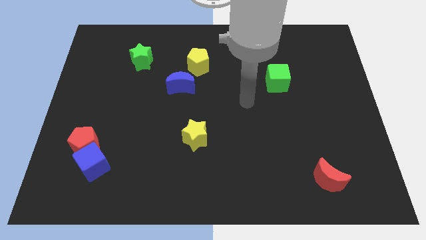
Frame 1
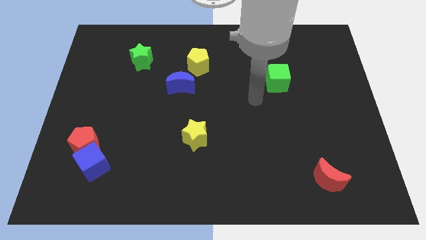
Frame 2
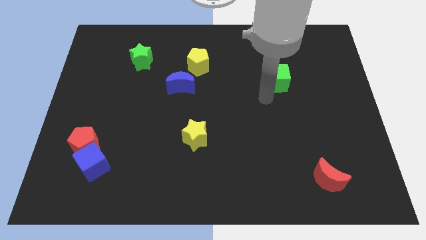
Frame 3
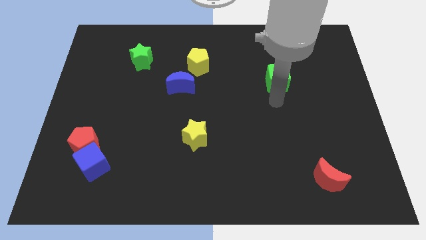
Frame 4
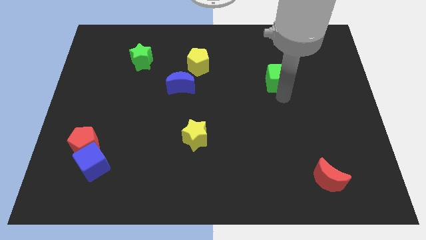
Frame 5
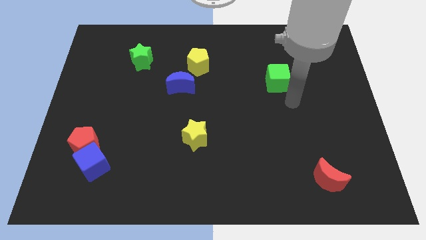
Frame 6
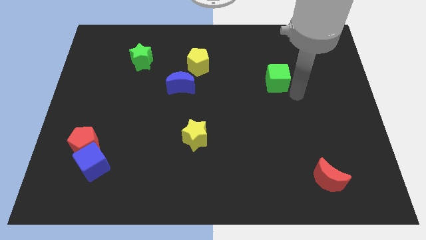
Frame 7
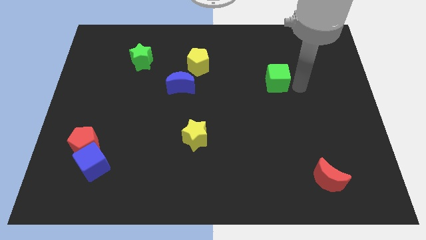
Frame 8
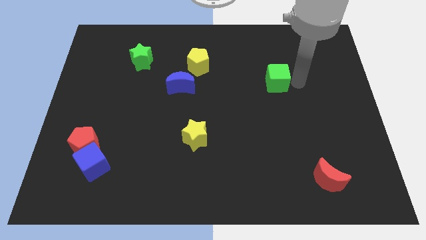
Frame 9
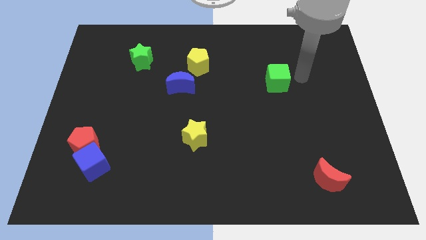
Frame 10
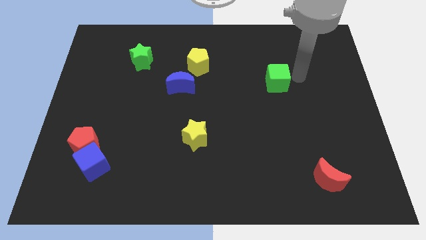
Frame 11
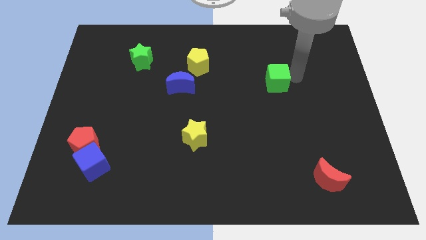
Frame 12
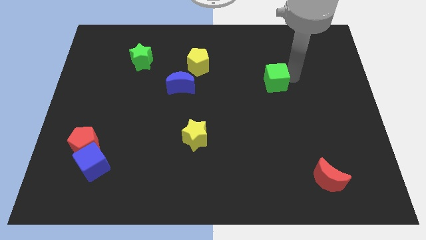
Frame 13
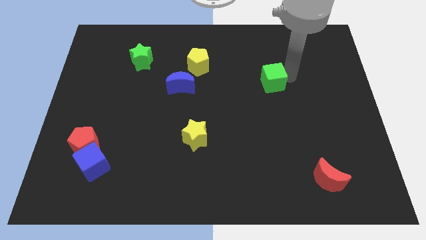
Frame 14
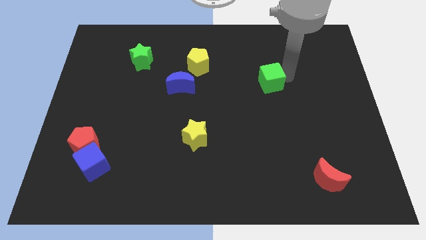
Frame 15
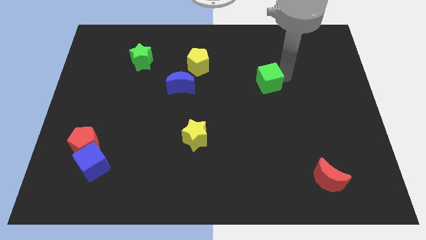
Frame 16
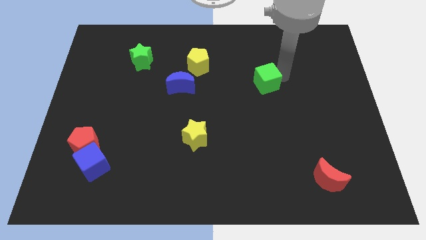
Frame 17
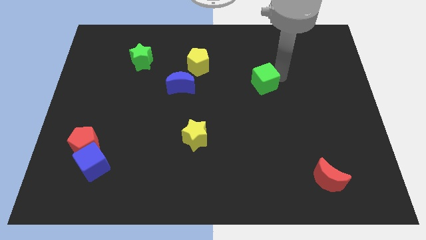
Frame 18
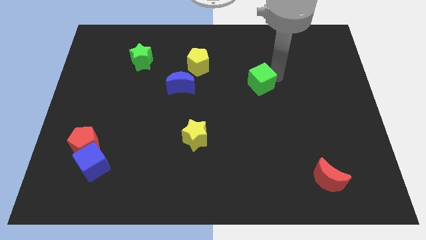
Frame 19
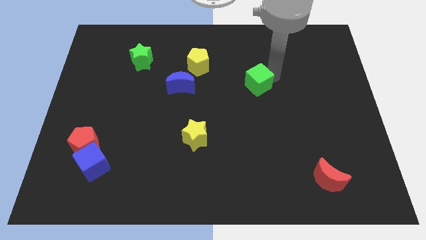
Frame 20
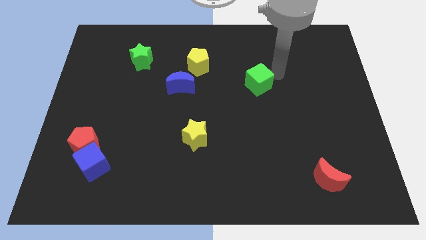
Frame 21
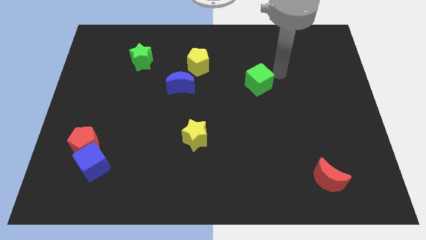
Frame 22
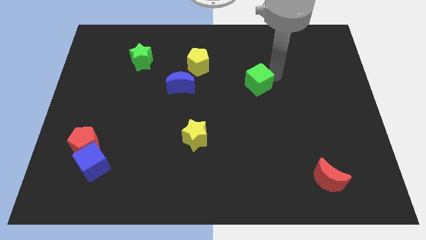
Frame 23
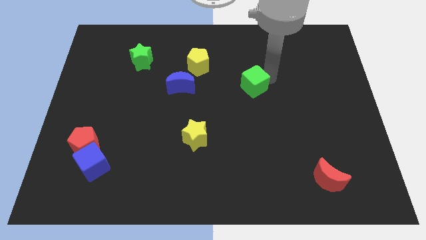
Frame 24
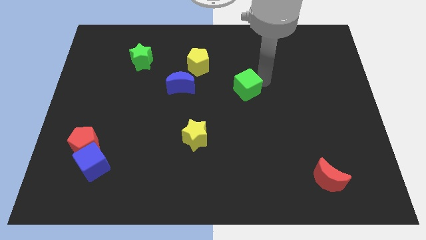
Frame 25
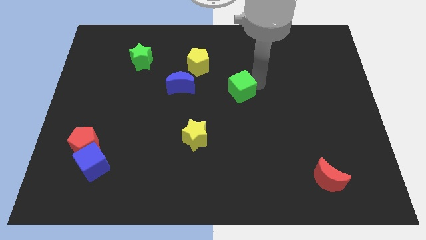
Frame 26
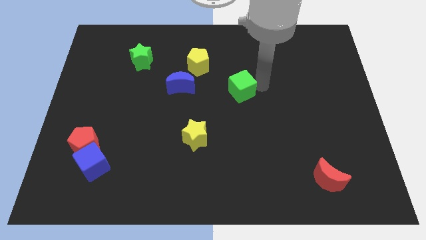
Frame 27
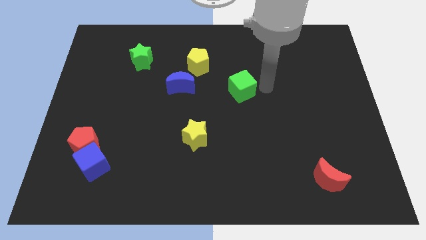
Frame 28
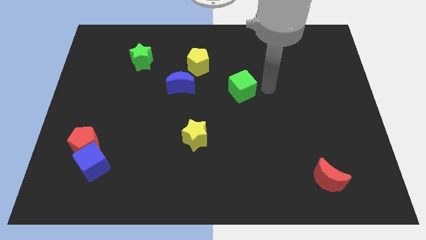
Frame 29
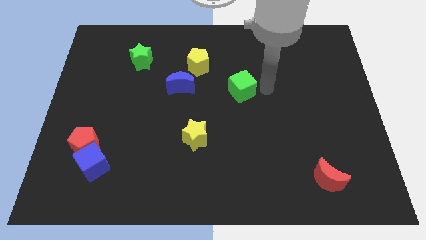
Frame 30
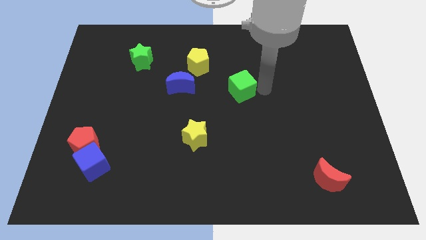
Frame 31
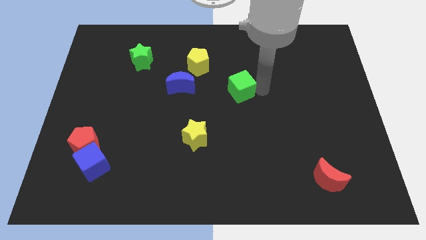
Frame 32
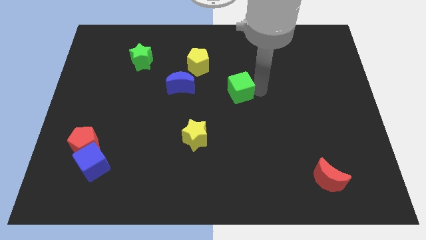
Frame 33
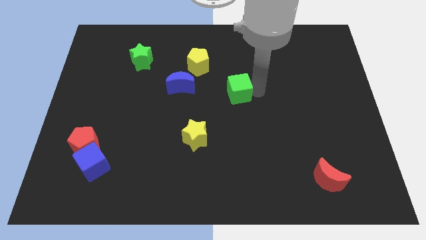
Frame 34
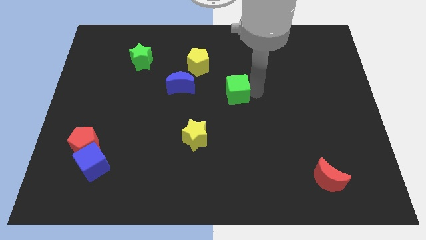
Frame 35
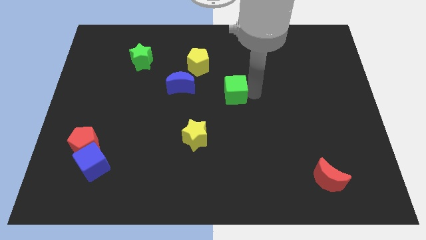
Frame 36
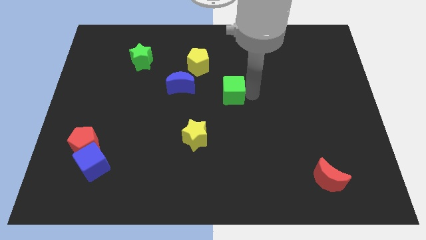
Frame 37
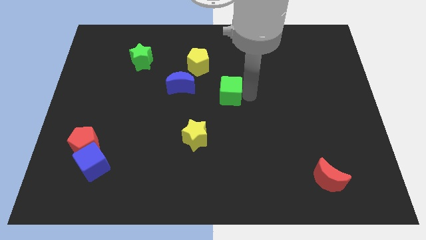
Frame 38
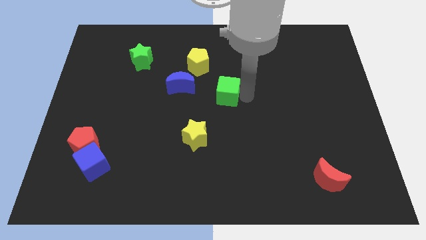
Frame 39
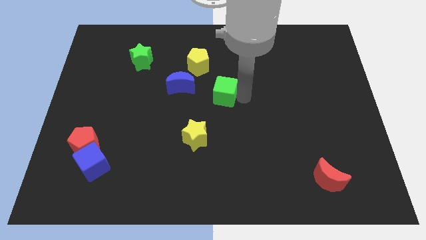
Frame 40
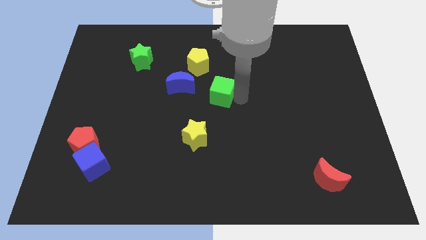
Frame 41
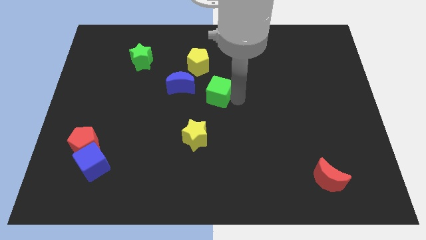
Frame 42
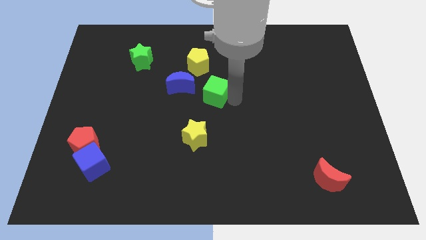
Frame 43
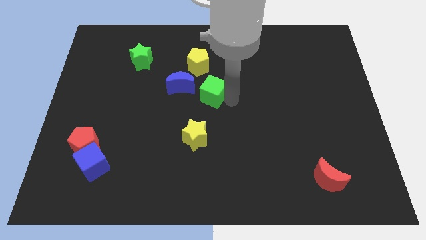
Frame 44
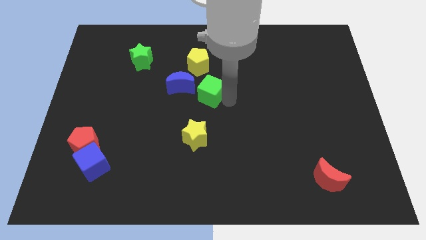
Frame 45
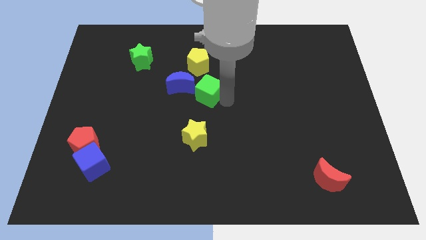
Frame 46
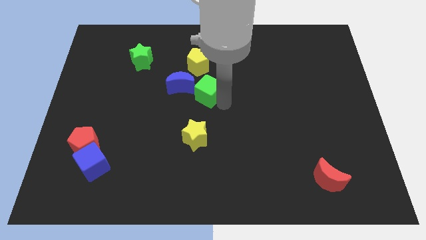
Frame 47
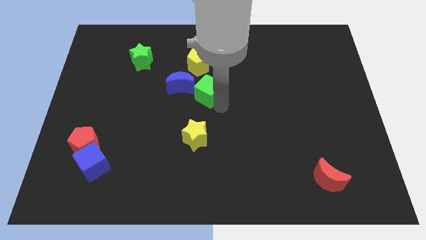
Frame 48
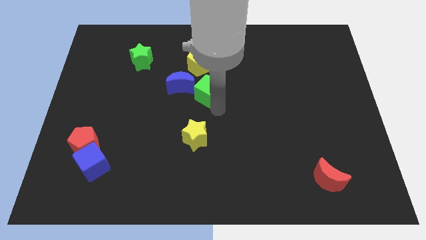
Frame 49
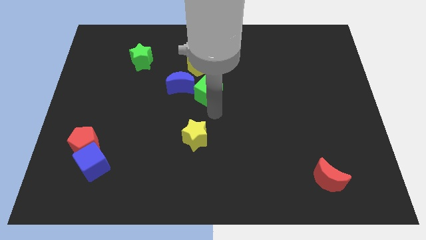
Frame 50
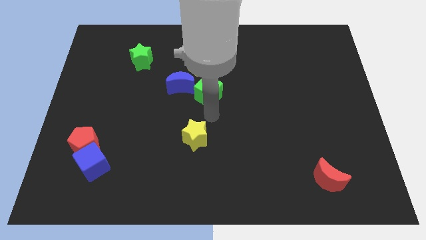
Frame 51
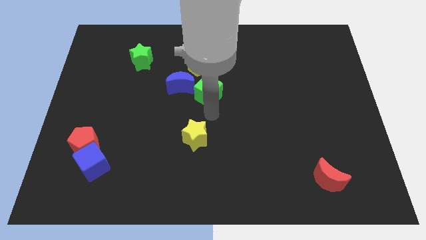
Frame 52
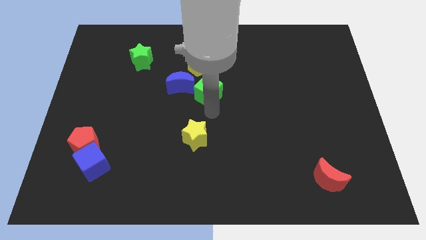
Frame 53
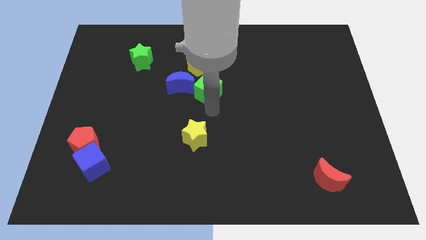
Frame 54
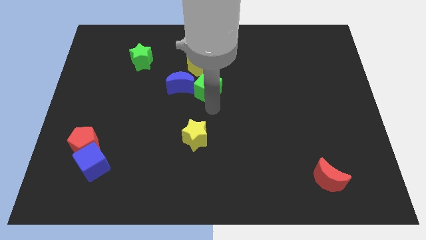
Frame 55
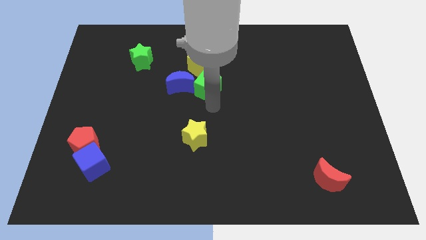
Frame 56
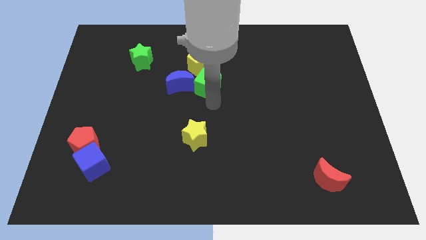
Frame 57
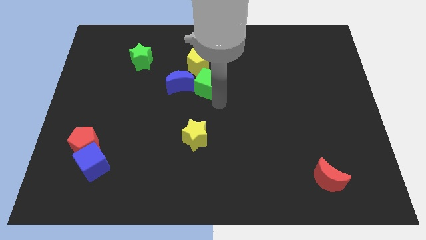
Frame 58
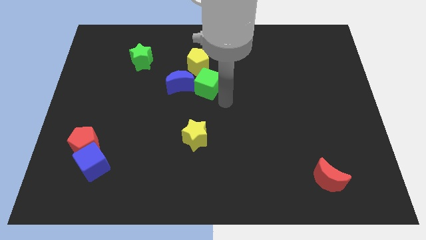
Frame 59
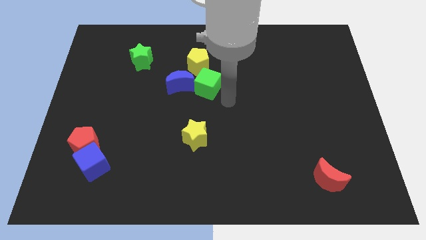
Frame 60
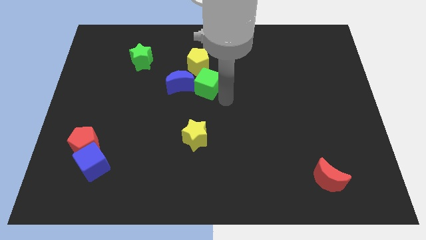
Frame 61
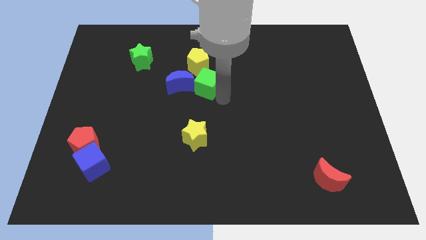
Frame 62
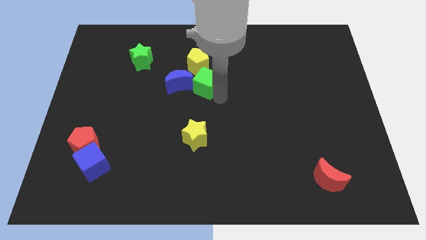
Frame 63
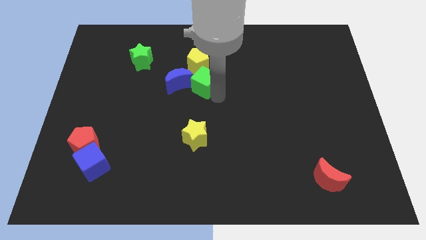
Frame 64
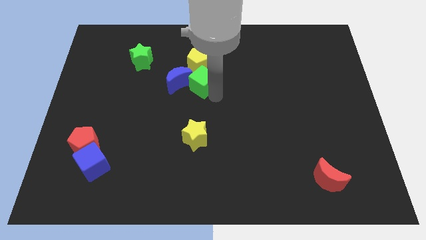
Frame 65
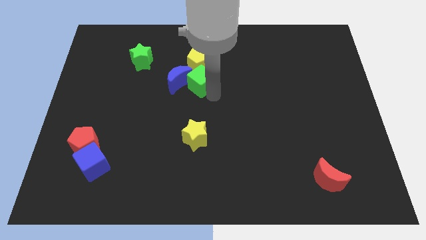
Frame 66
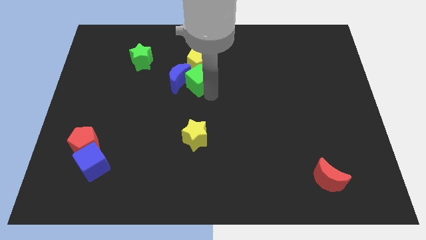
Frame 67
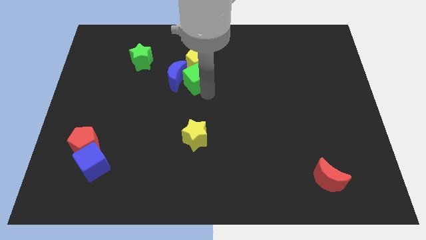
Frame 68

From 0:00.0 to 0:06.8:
move the green cube left

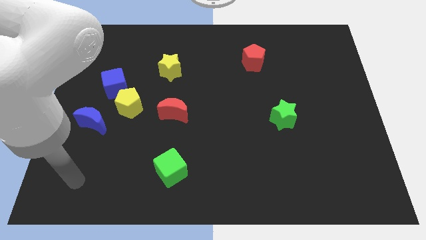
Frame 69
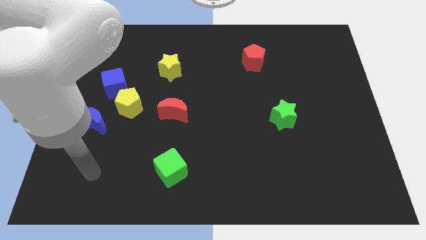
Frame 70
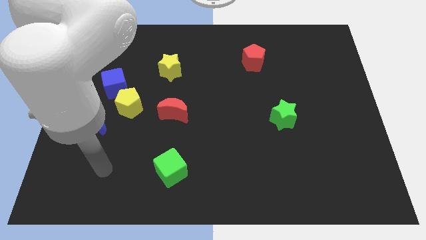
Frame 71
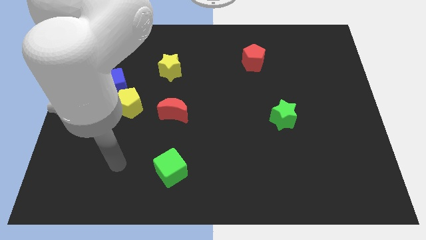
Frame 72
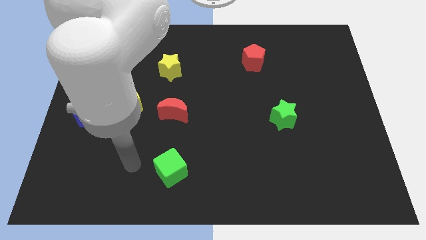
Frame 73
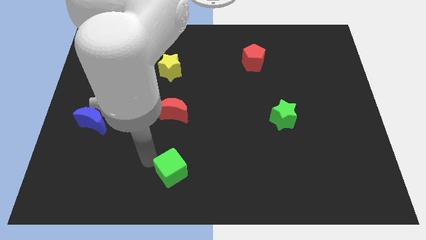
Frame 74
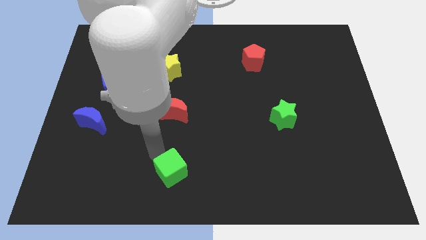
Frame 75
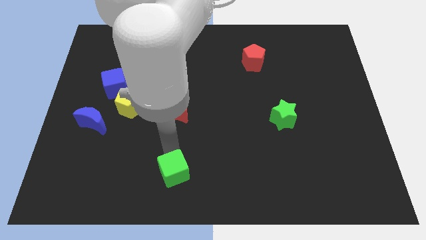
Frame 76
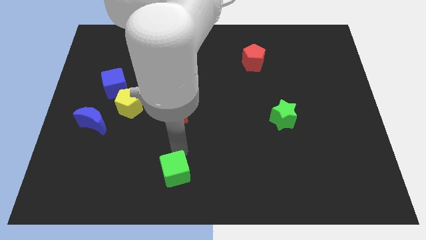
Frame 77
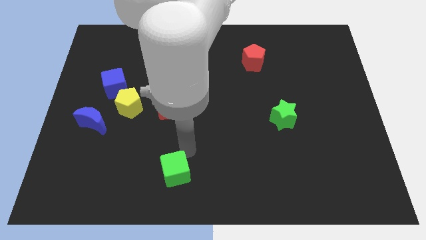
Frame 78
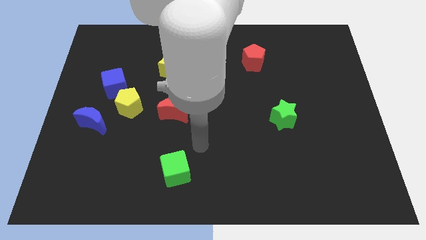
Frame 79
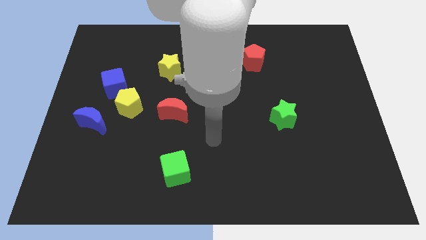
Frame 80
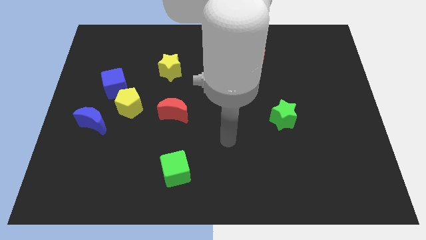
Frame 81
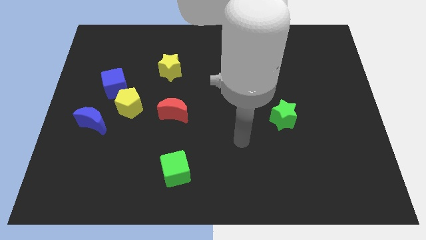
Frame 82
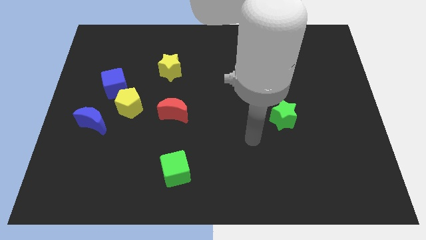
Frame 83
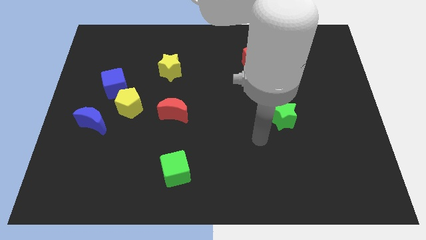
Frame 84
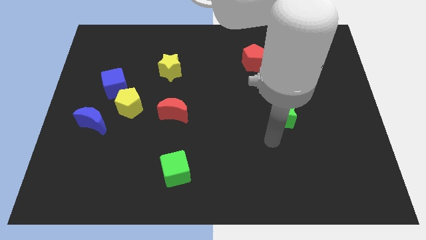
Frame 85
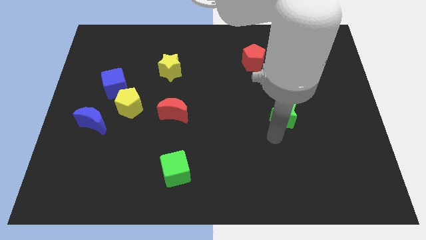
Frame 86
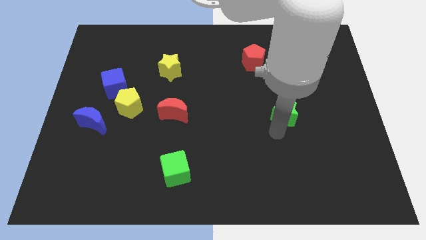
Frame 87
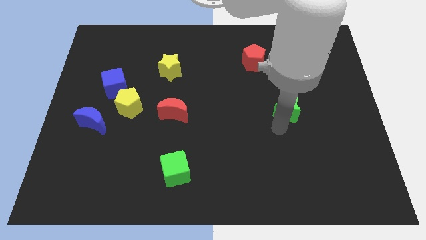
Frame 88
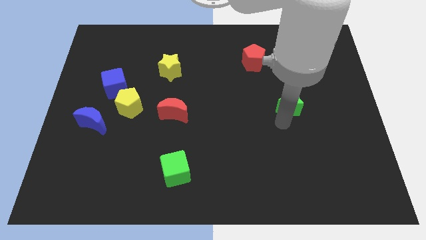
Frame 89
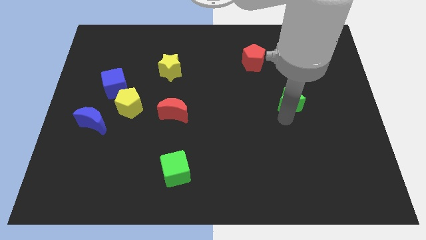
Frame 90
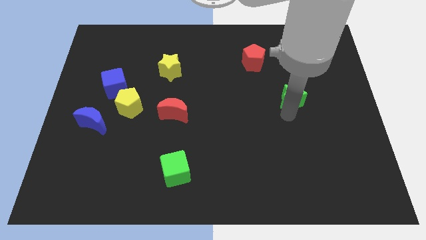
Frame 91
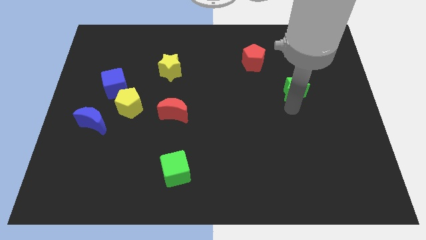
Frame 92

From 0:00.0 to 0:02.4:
push the green star up a little bit
